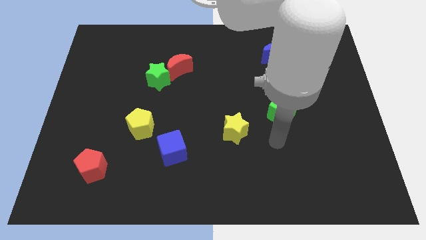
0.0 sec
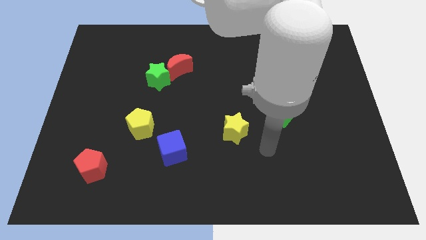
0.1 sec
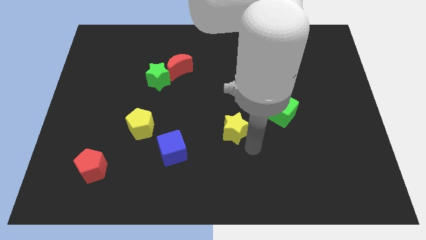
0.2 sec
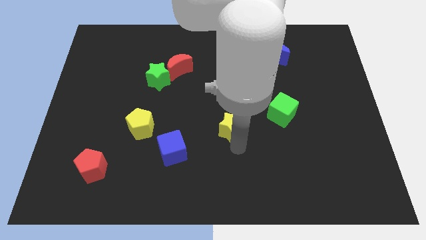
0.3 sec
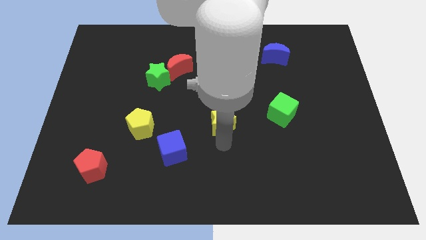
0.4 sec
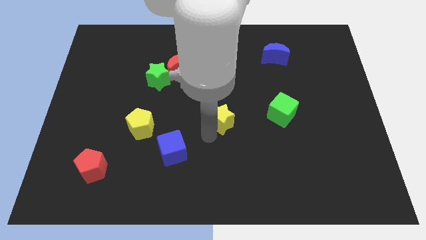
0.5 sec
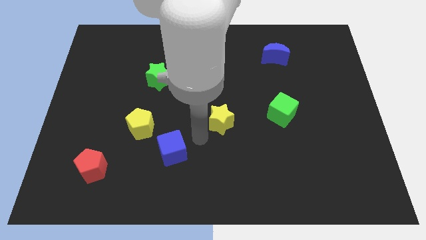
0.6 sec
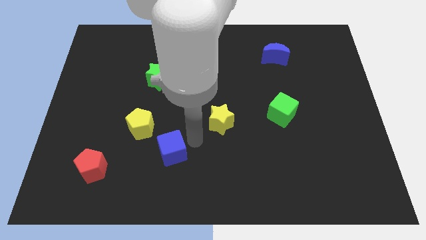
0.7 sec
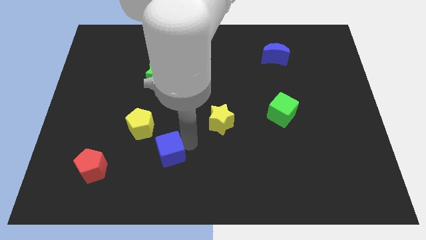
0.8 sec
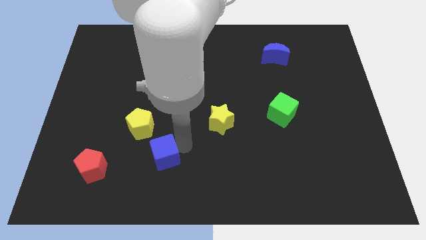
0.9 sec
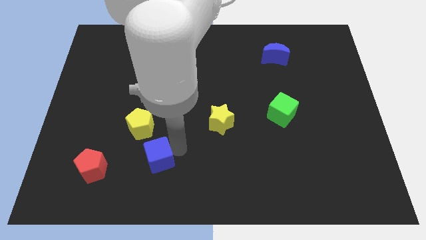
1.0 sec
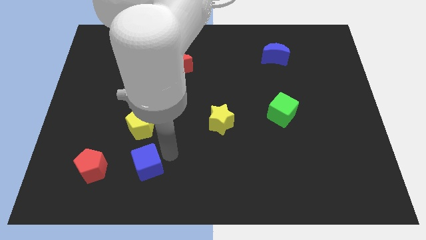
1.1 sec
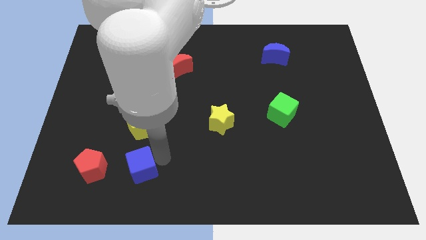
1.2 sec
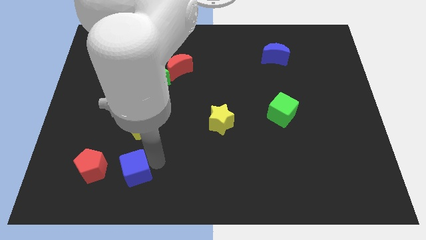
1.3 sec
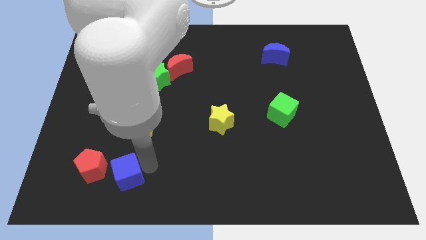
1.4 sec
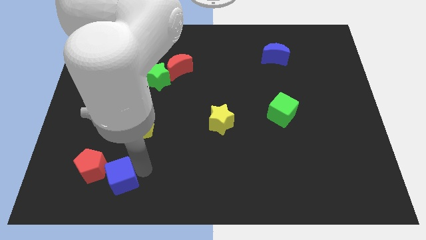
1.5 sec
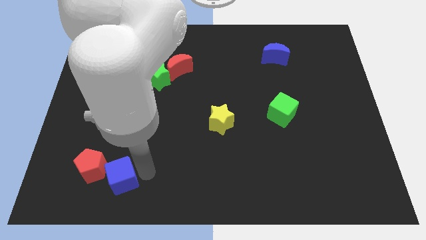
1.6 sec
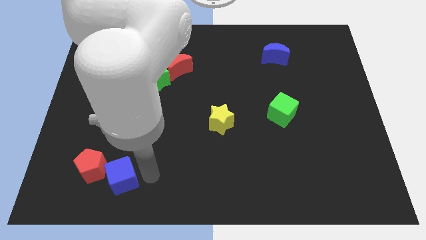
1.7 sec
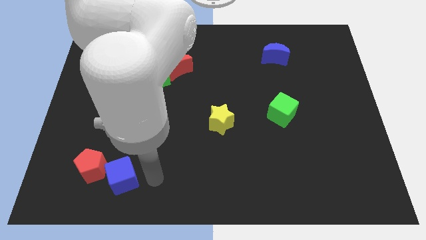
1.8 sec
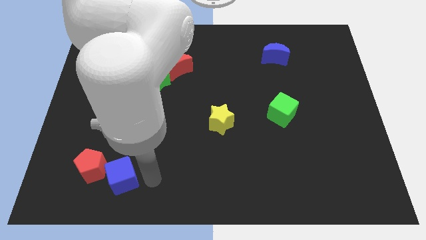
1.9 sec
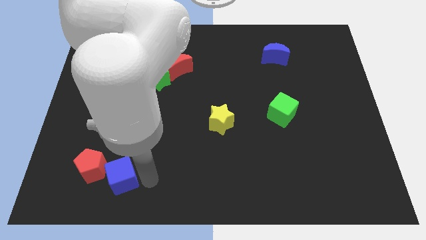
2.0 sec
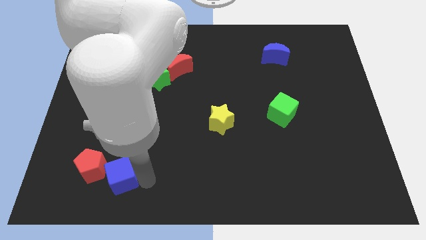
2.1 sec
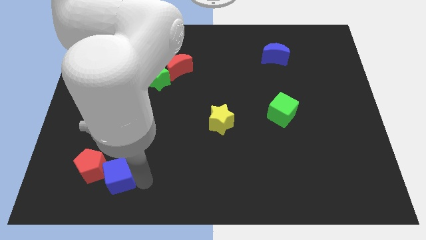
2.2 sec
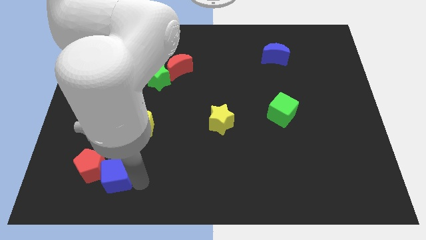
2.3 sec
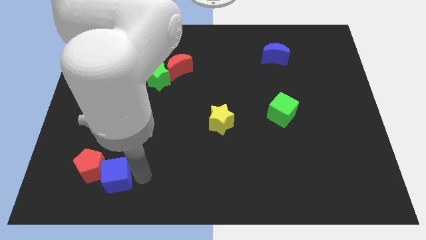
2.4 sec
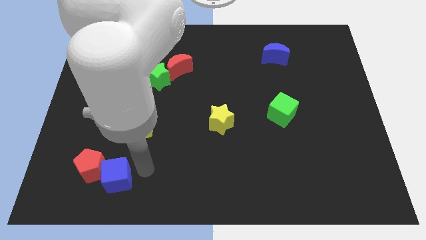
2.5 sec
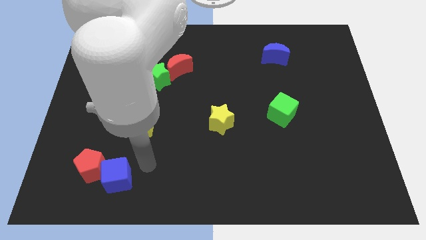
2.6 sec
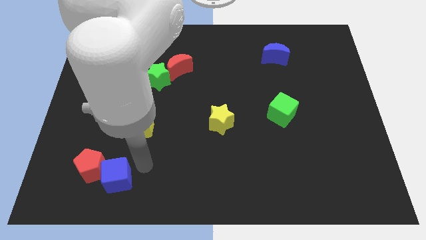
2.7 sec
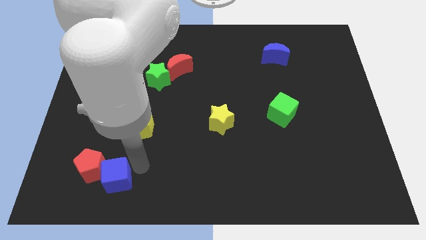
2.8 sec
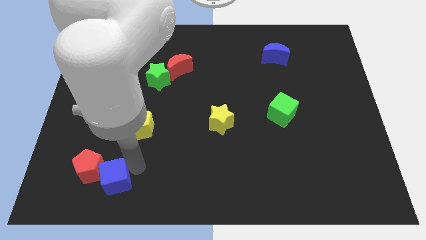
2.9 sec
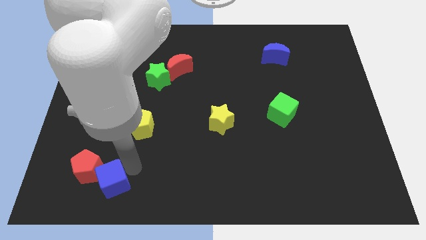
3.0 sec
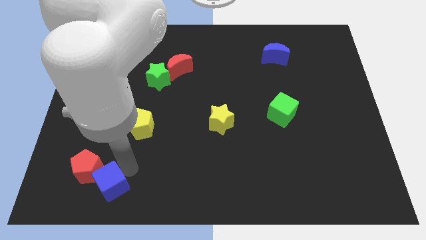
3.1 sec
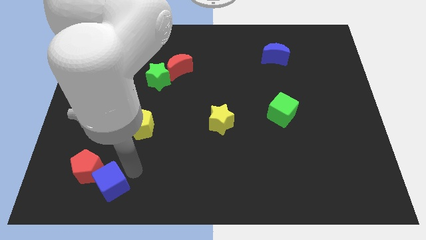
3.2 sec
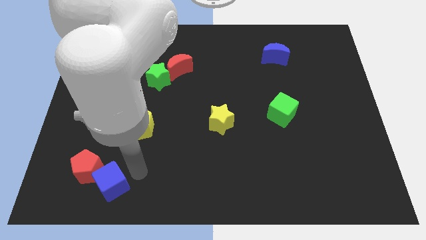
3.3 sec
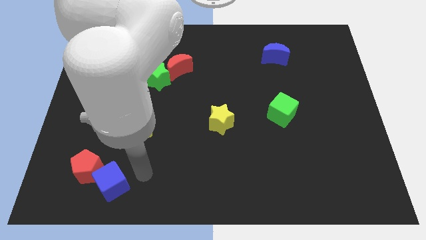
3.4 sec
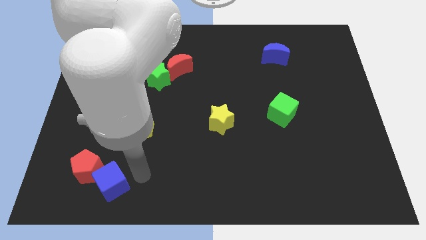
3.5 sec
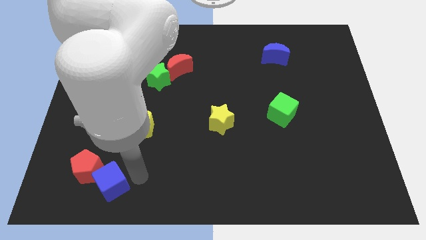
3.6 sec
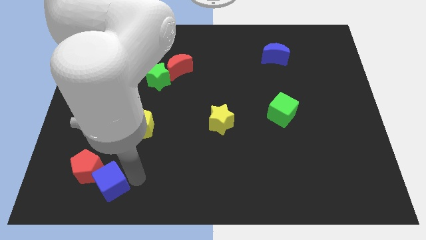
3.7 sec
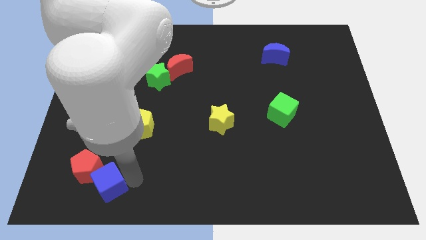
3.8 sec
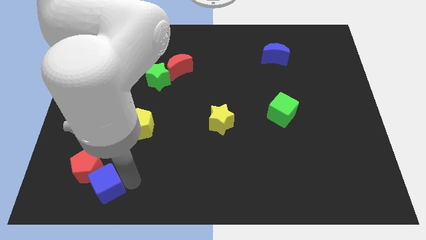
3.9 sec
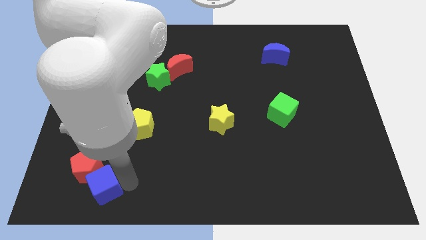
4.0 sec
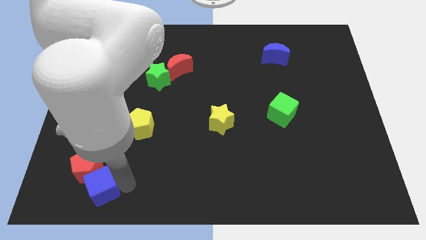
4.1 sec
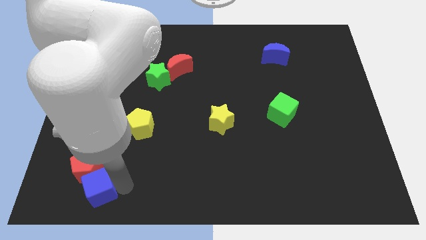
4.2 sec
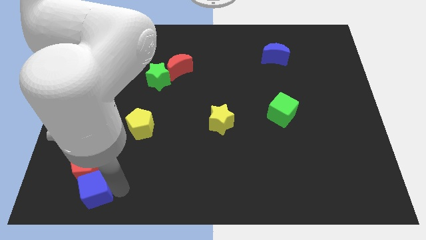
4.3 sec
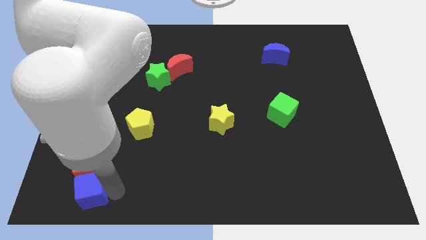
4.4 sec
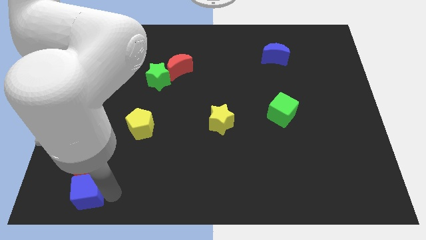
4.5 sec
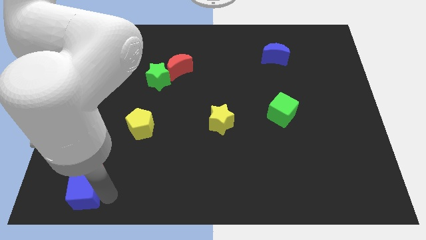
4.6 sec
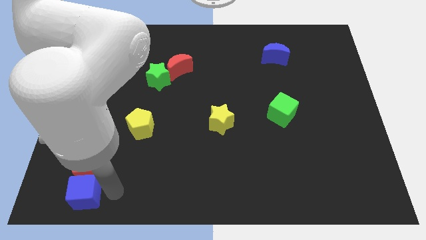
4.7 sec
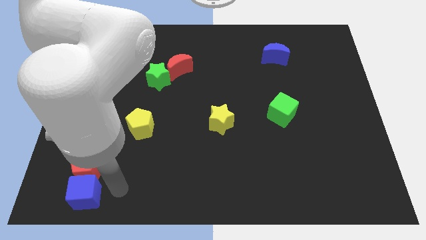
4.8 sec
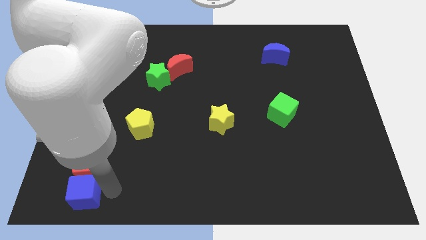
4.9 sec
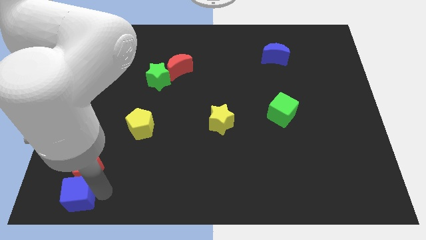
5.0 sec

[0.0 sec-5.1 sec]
put the blue cube to the bottom left

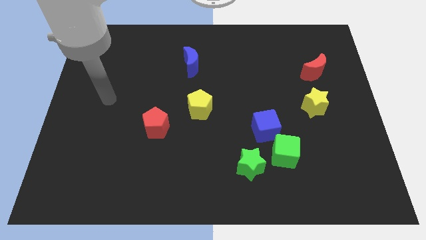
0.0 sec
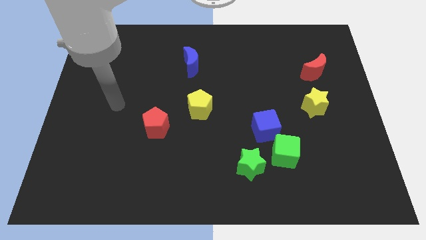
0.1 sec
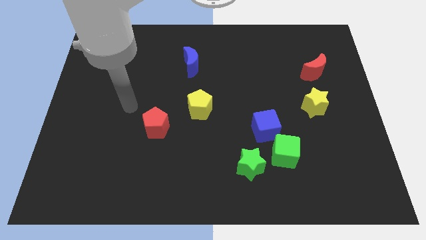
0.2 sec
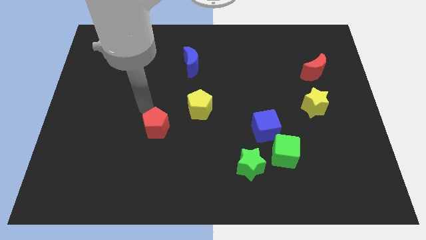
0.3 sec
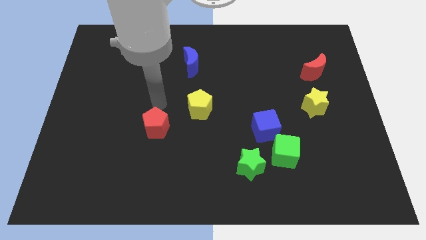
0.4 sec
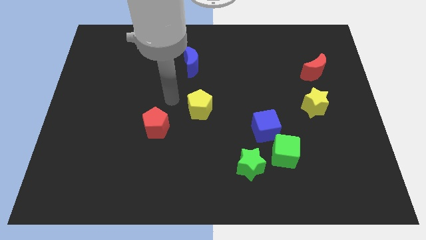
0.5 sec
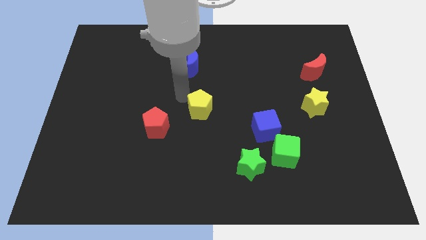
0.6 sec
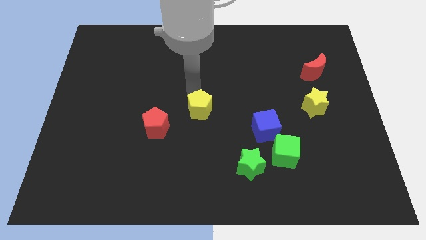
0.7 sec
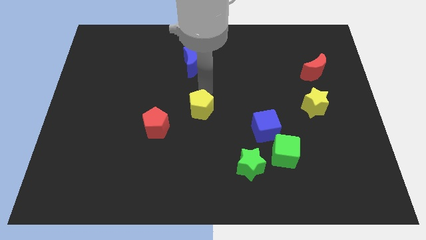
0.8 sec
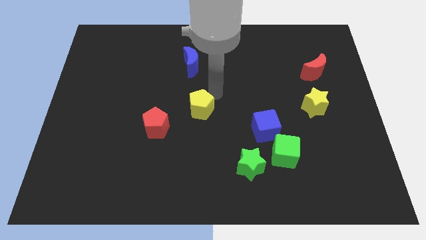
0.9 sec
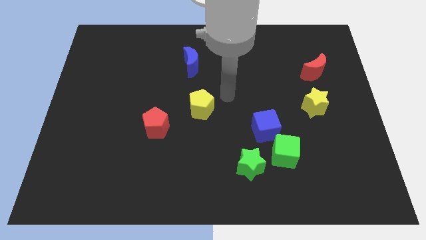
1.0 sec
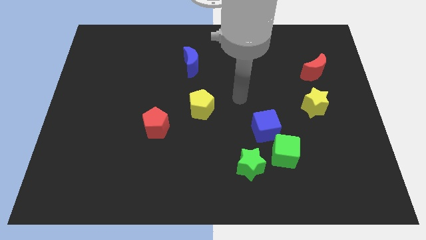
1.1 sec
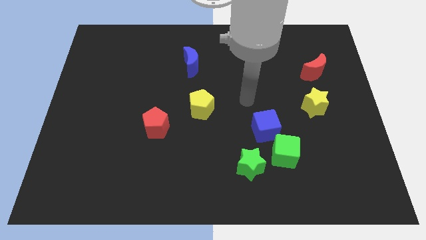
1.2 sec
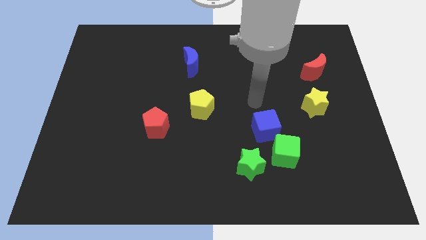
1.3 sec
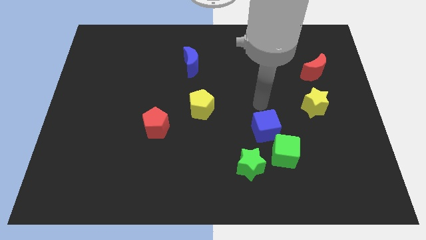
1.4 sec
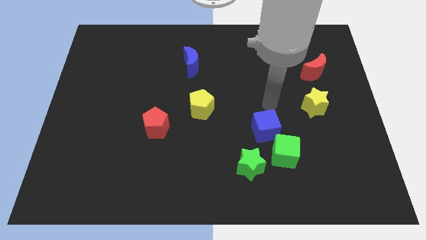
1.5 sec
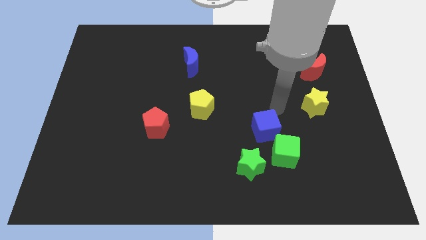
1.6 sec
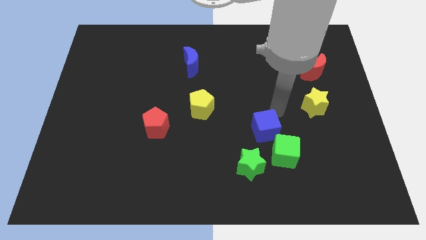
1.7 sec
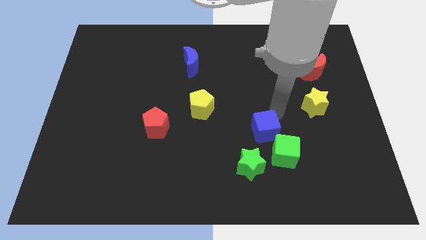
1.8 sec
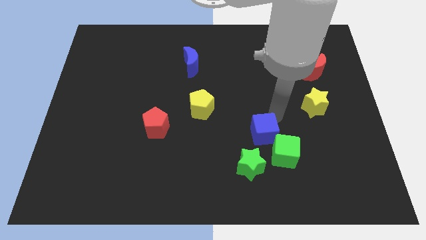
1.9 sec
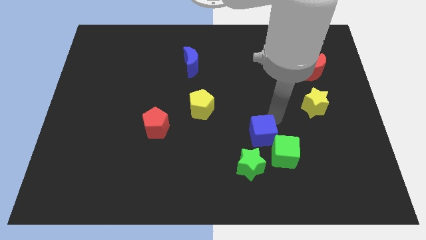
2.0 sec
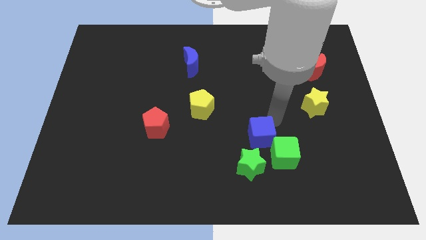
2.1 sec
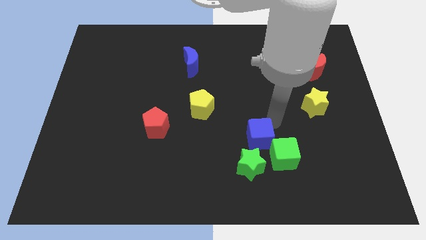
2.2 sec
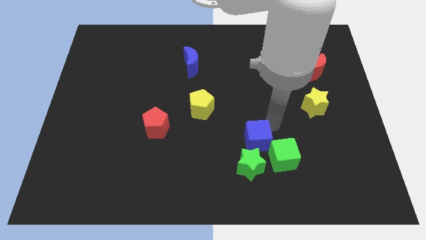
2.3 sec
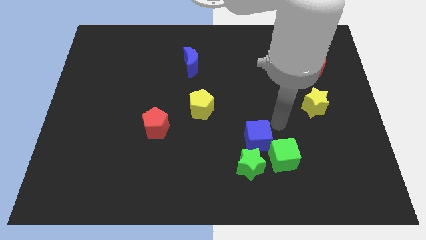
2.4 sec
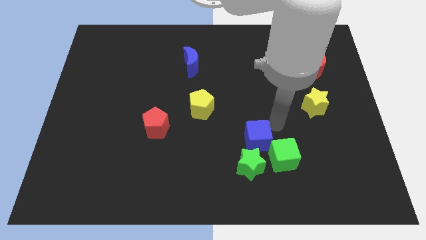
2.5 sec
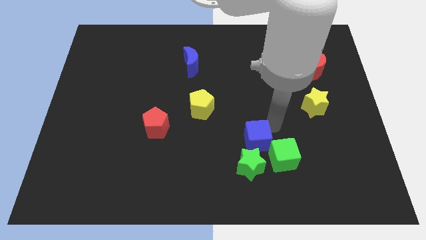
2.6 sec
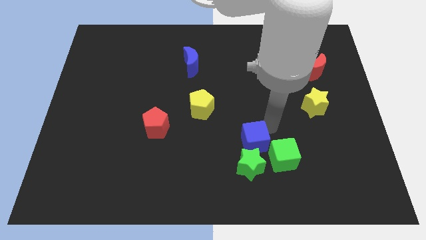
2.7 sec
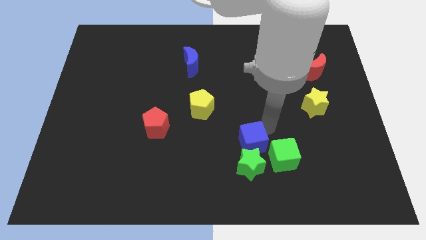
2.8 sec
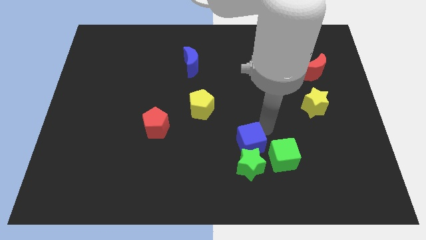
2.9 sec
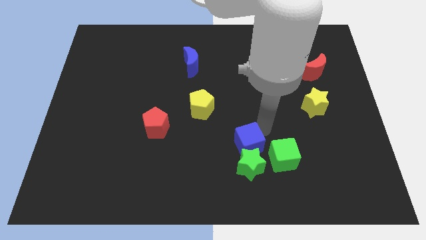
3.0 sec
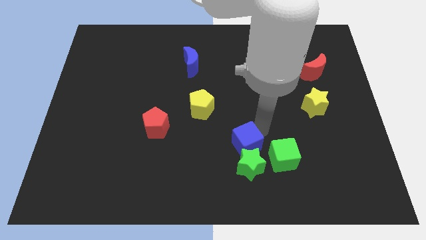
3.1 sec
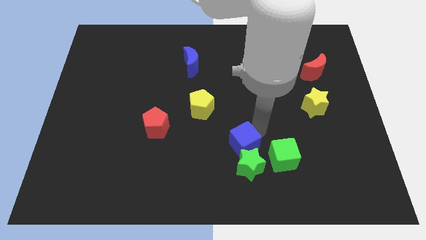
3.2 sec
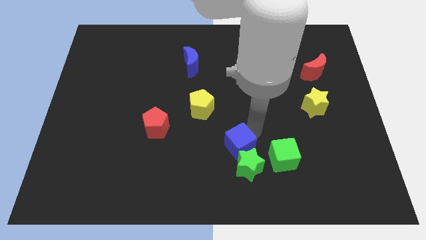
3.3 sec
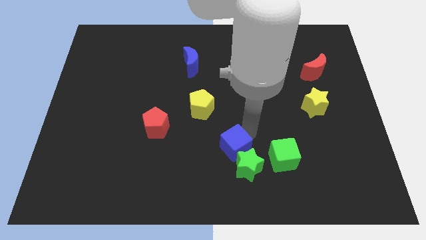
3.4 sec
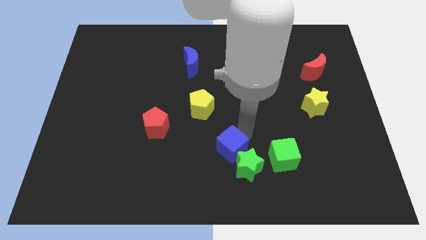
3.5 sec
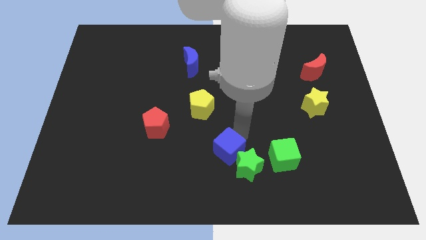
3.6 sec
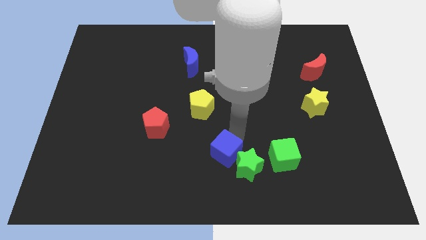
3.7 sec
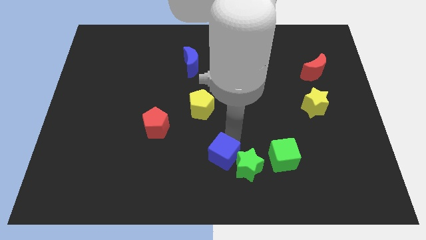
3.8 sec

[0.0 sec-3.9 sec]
move the blue cube to the bottom side
